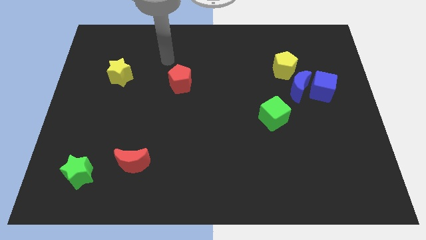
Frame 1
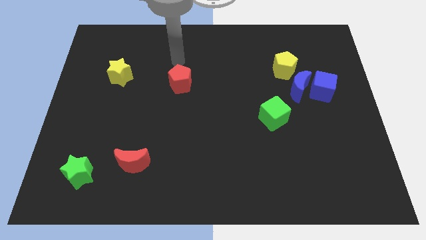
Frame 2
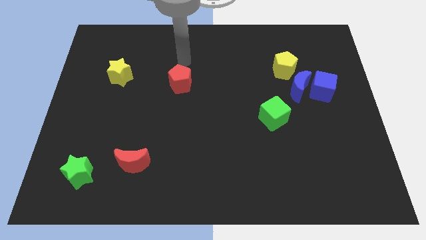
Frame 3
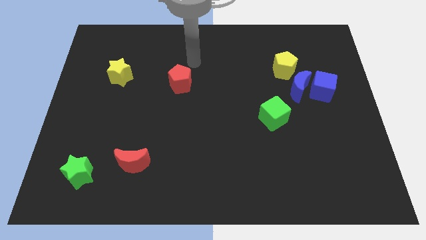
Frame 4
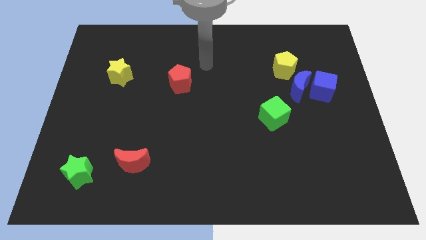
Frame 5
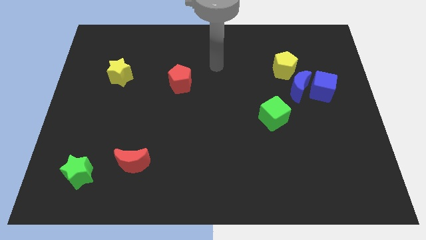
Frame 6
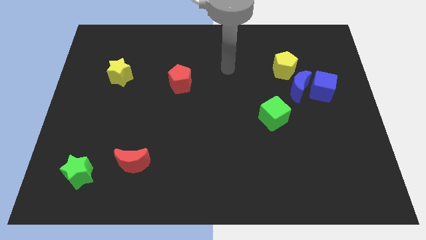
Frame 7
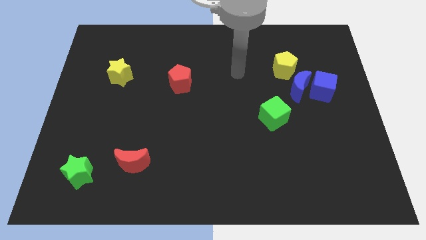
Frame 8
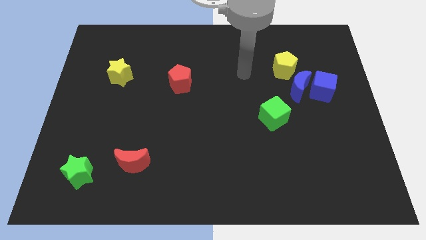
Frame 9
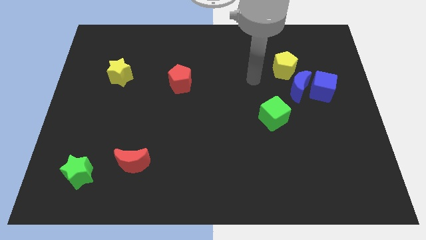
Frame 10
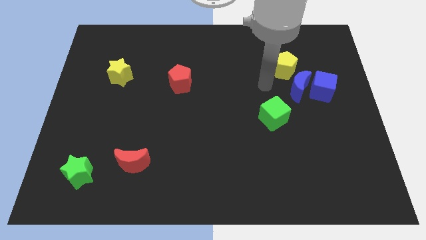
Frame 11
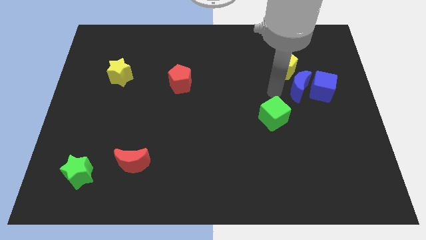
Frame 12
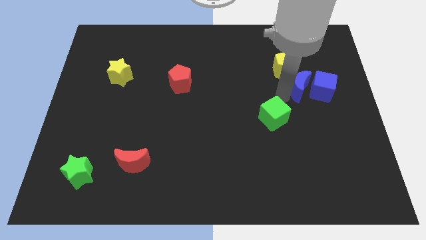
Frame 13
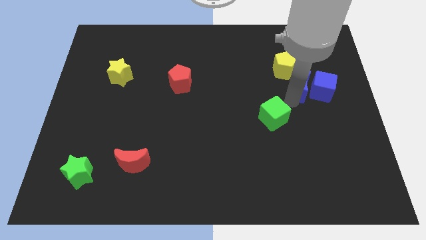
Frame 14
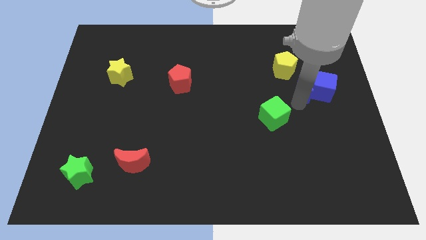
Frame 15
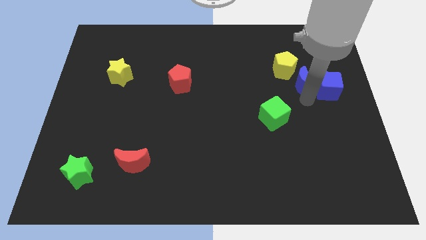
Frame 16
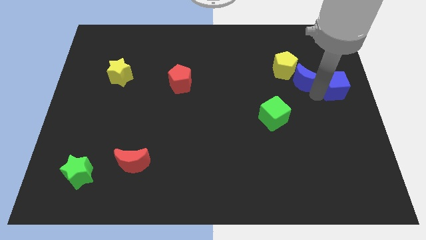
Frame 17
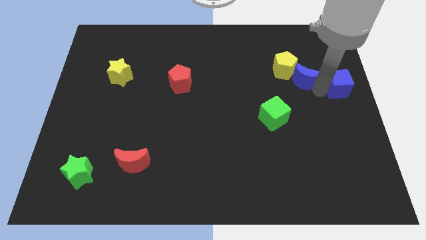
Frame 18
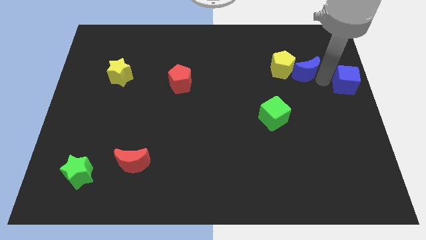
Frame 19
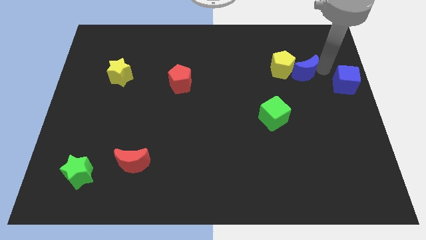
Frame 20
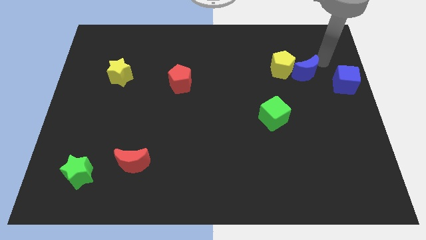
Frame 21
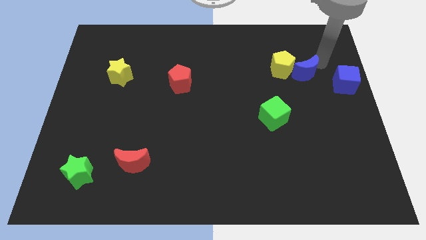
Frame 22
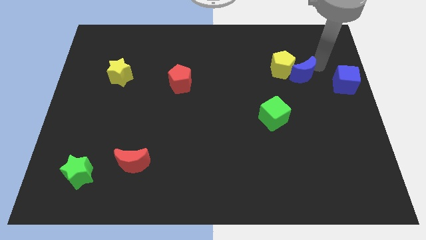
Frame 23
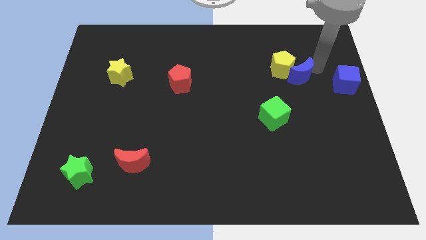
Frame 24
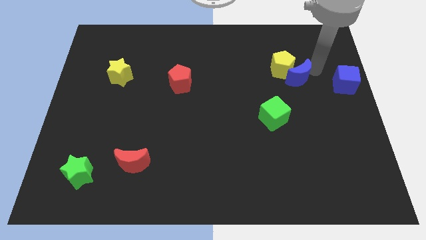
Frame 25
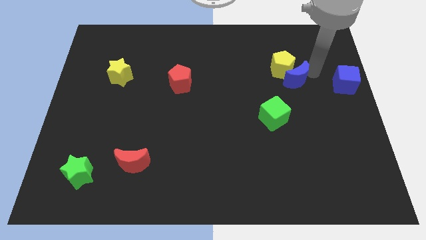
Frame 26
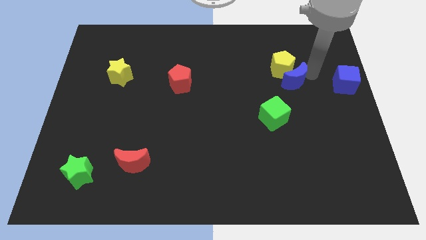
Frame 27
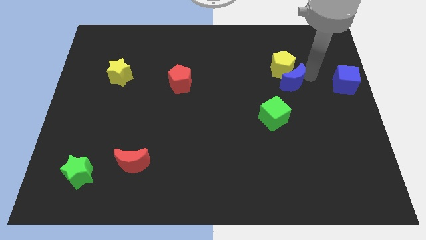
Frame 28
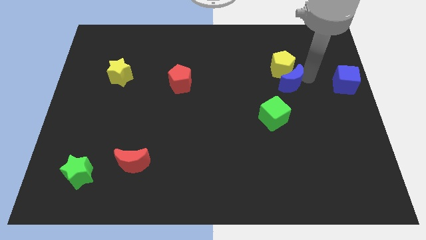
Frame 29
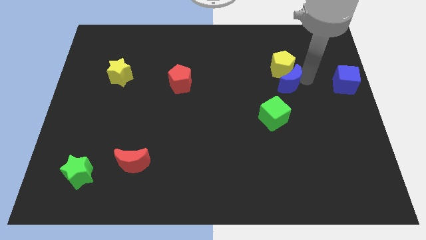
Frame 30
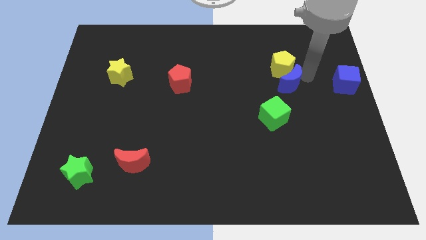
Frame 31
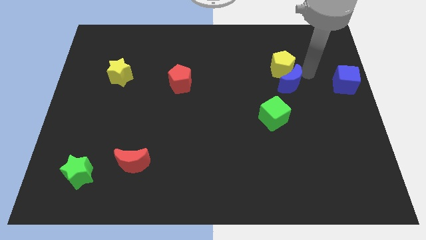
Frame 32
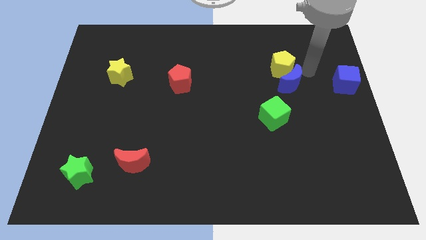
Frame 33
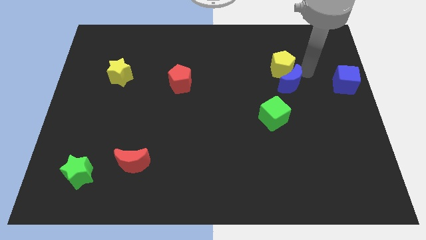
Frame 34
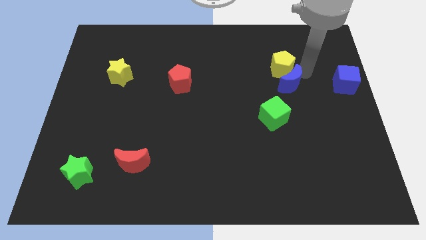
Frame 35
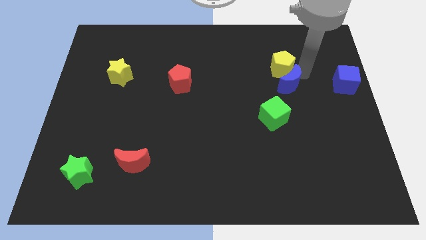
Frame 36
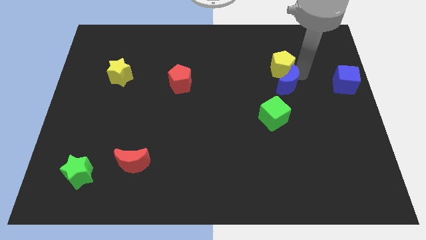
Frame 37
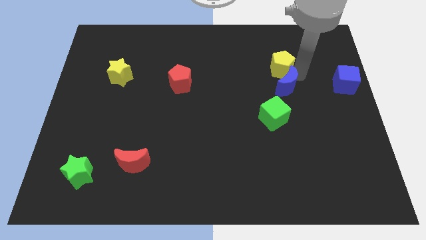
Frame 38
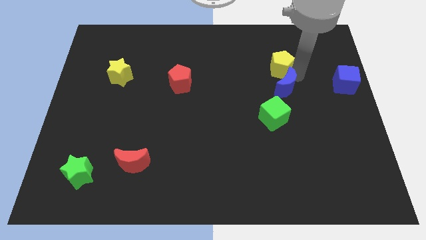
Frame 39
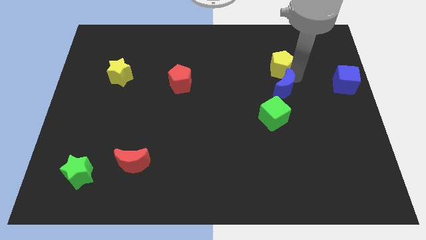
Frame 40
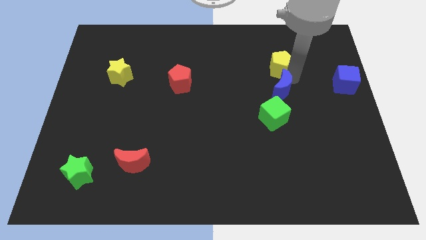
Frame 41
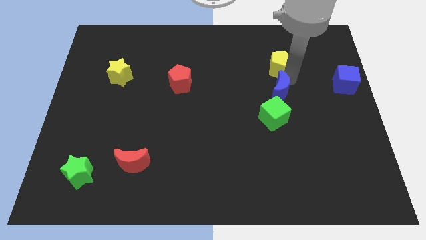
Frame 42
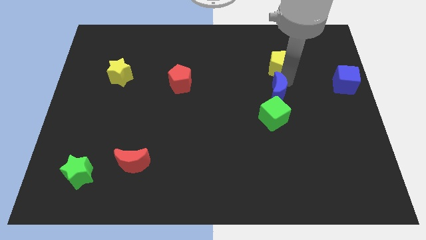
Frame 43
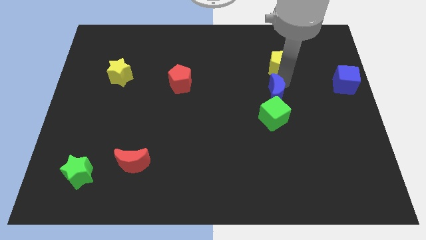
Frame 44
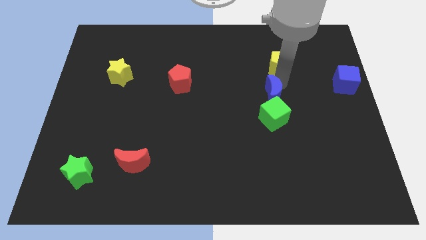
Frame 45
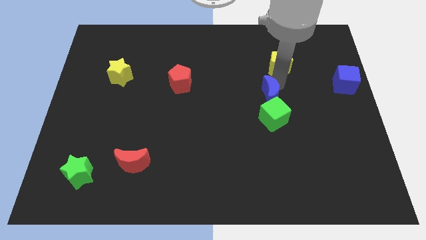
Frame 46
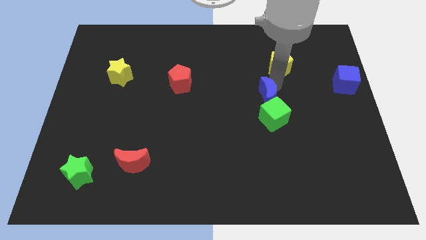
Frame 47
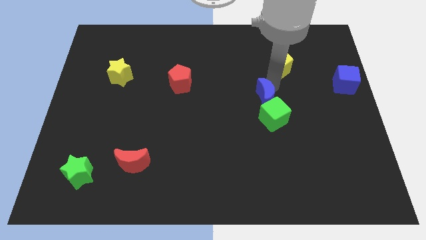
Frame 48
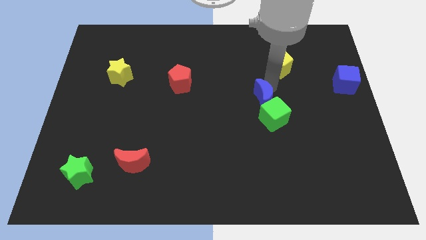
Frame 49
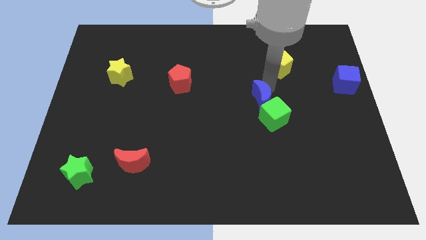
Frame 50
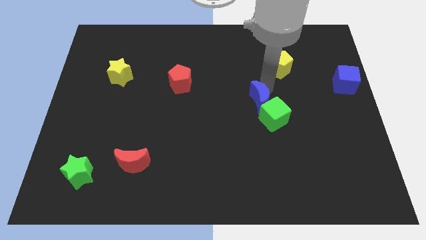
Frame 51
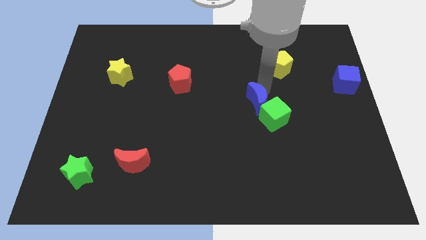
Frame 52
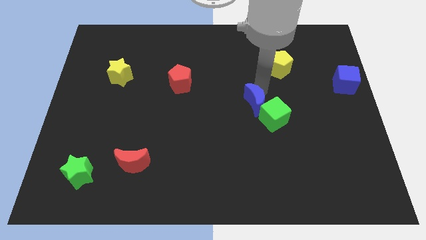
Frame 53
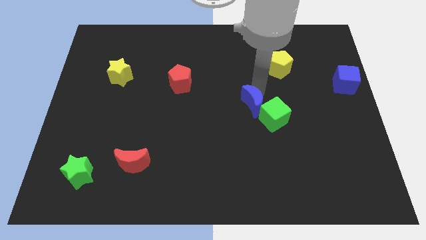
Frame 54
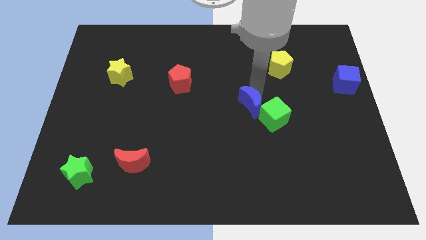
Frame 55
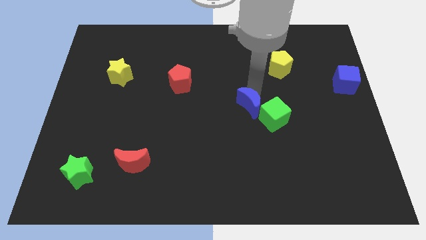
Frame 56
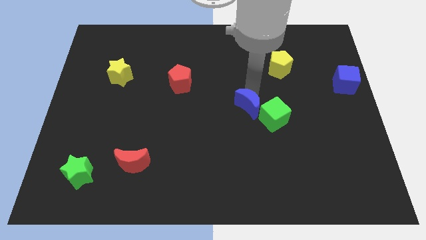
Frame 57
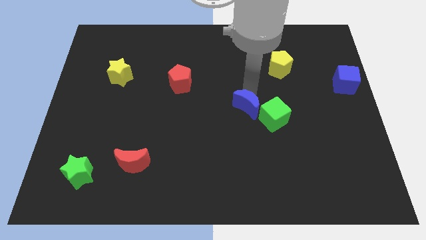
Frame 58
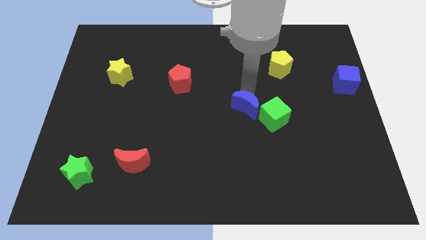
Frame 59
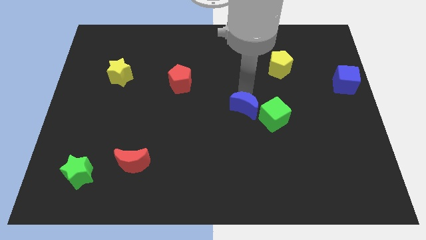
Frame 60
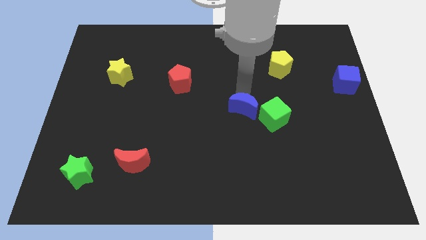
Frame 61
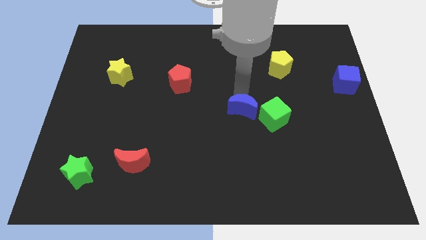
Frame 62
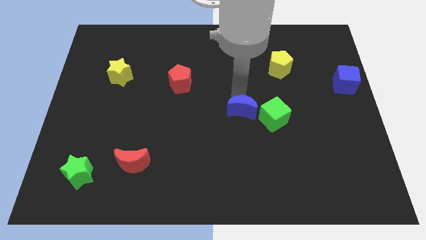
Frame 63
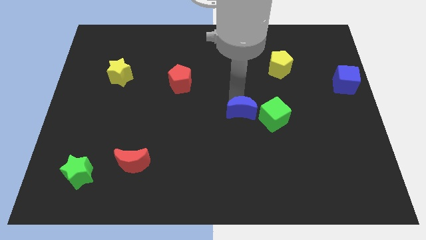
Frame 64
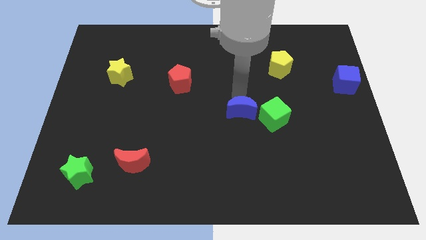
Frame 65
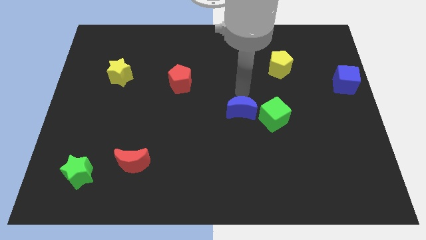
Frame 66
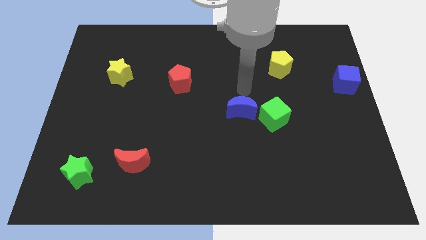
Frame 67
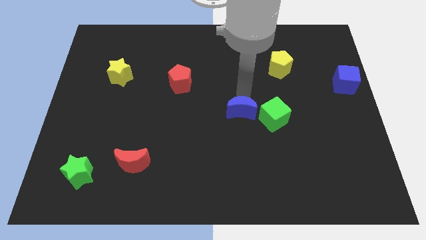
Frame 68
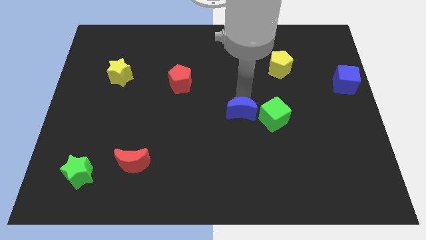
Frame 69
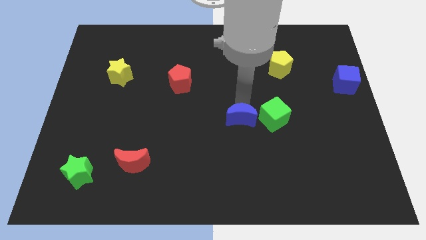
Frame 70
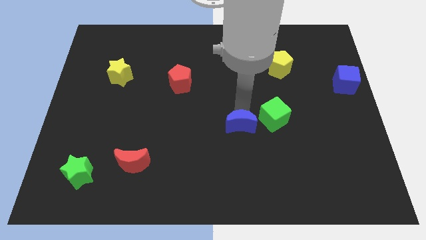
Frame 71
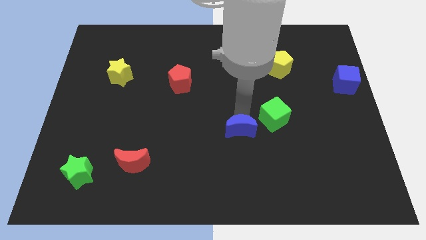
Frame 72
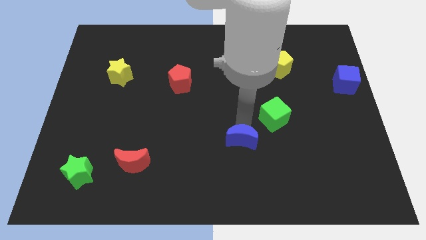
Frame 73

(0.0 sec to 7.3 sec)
slide the blue moon downwards and to the left

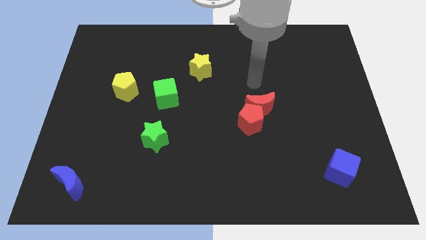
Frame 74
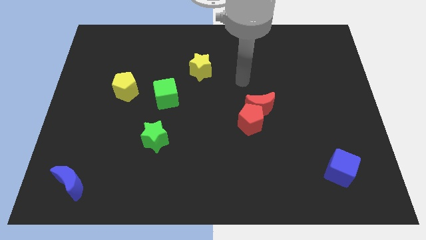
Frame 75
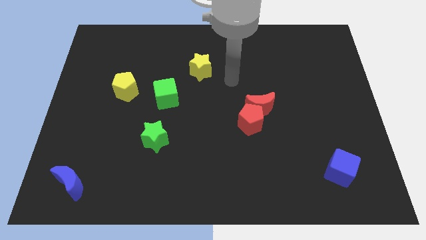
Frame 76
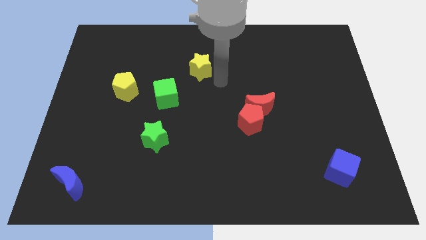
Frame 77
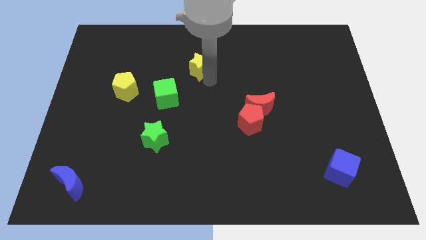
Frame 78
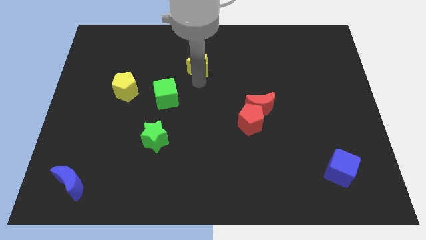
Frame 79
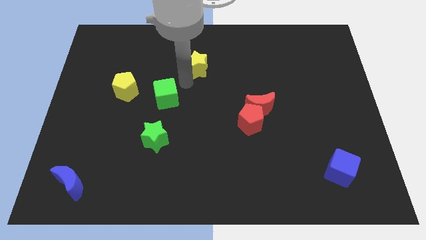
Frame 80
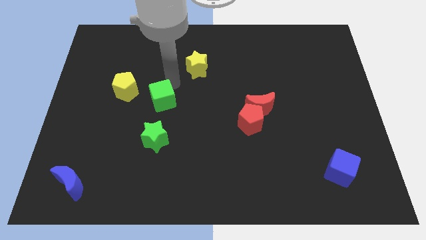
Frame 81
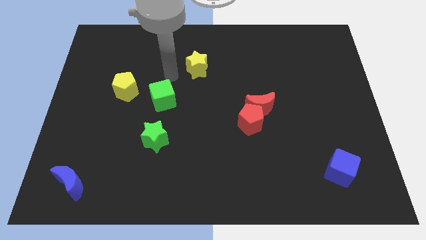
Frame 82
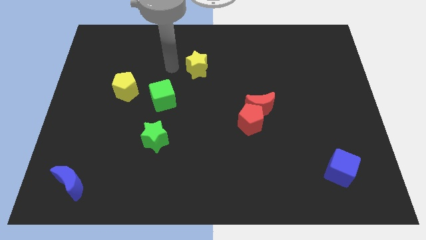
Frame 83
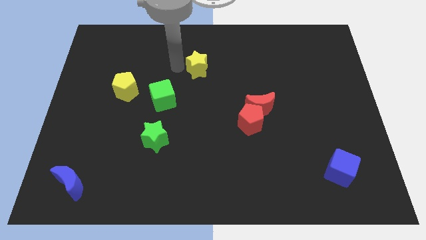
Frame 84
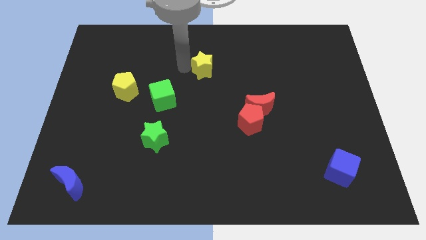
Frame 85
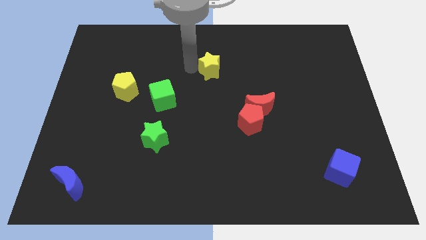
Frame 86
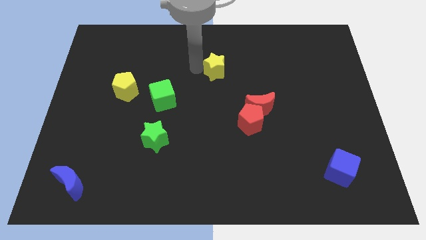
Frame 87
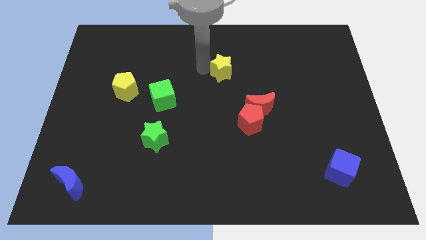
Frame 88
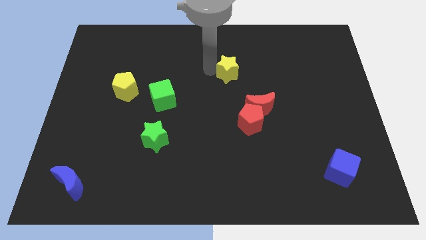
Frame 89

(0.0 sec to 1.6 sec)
slightly slide the yellow star right
